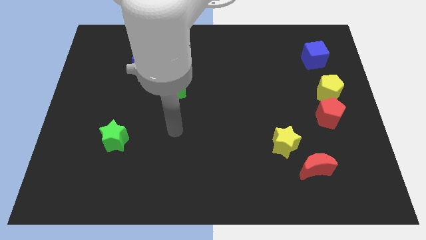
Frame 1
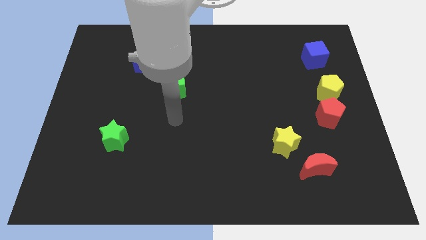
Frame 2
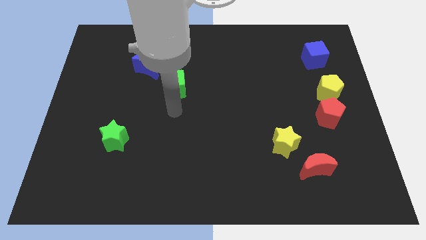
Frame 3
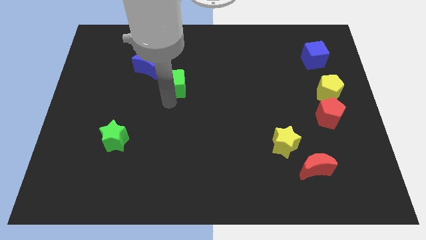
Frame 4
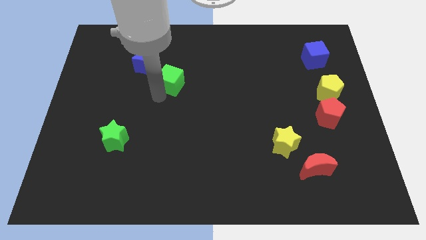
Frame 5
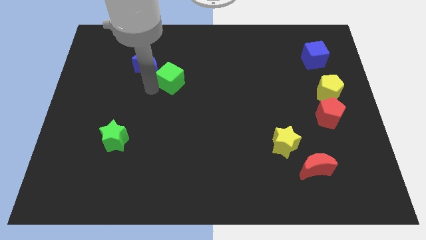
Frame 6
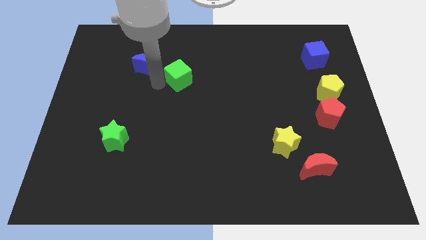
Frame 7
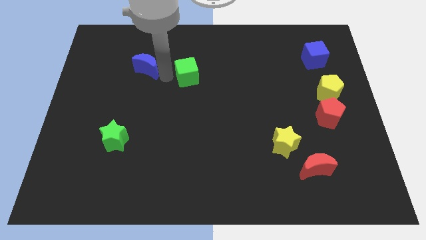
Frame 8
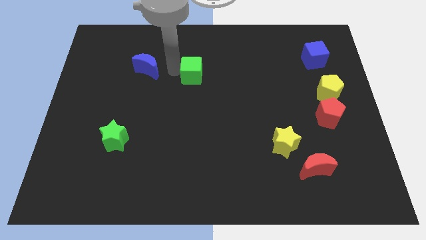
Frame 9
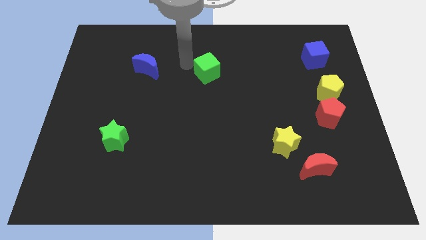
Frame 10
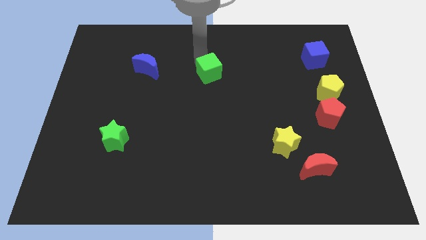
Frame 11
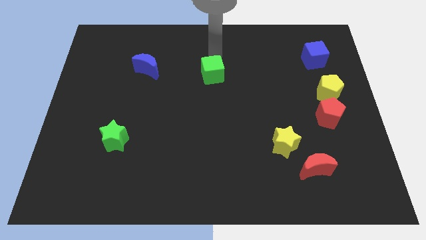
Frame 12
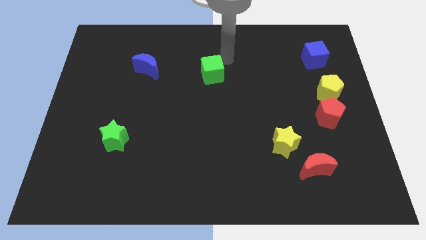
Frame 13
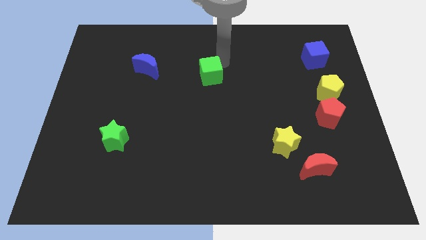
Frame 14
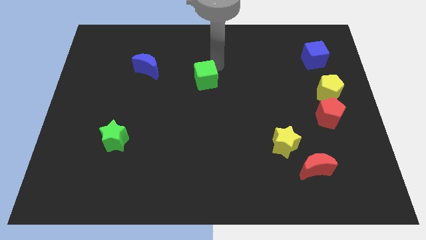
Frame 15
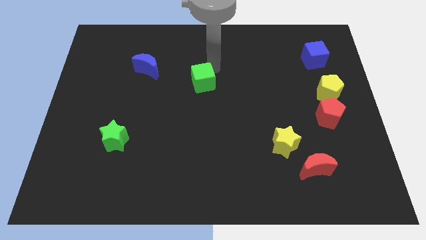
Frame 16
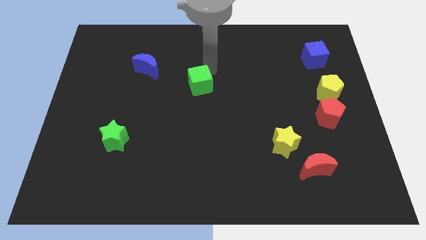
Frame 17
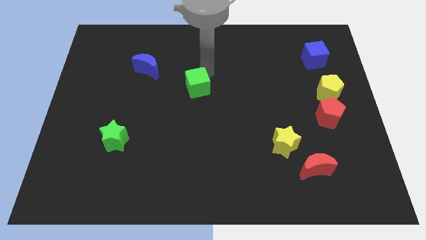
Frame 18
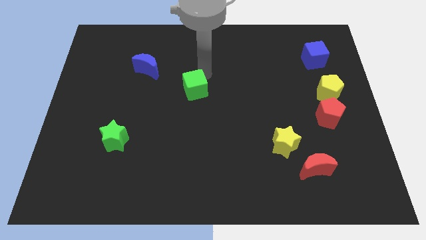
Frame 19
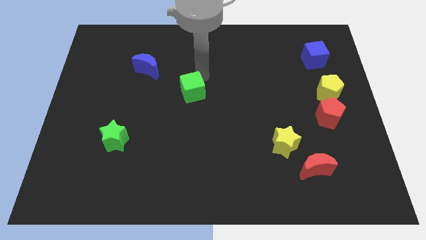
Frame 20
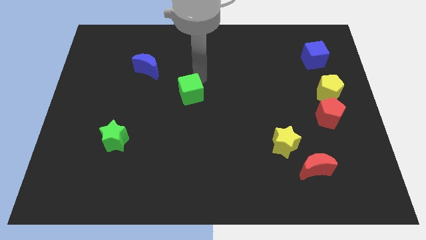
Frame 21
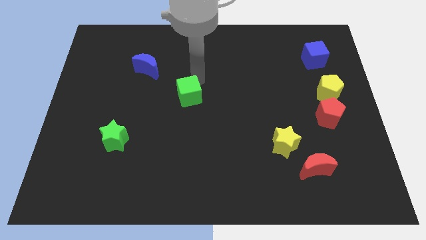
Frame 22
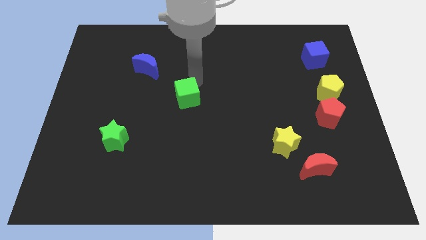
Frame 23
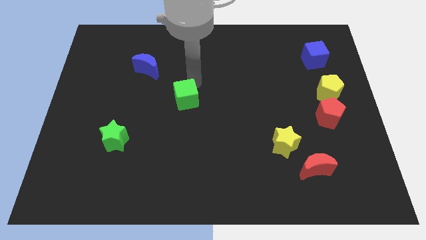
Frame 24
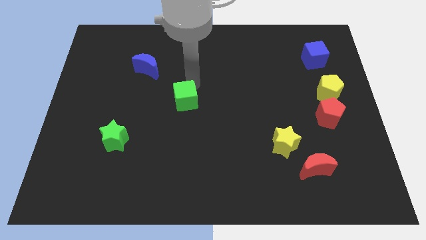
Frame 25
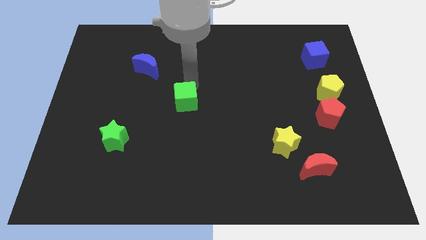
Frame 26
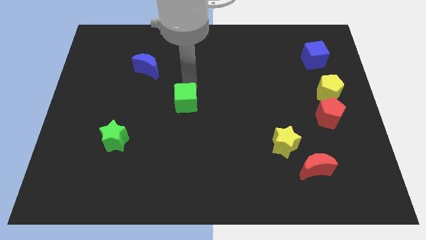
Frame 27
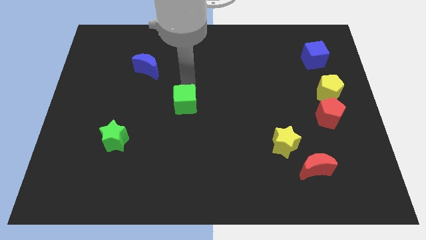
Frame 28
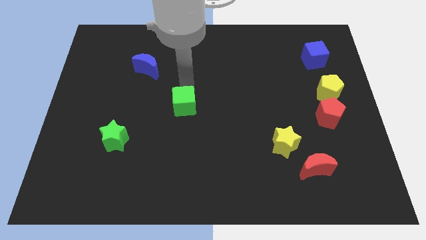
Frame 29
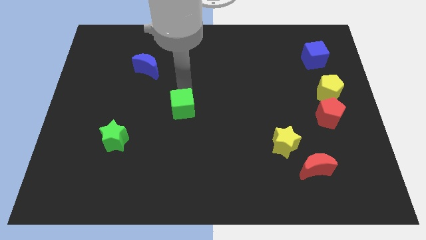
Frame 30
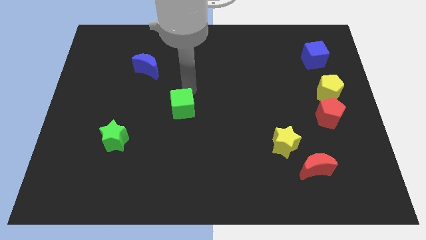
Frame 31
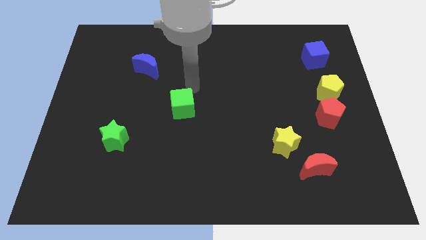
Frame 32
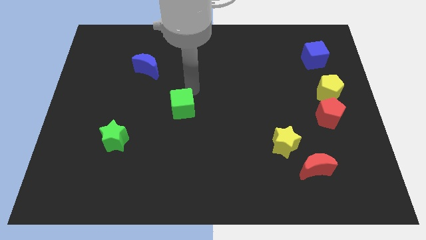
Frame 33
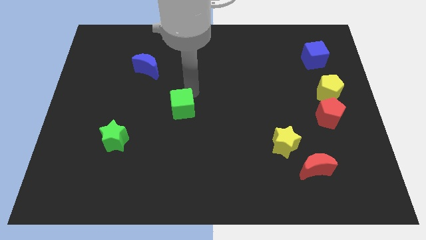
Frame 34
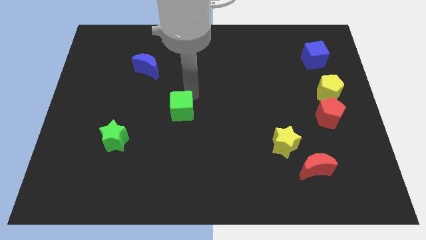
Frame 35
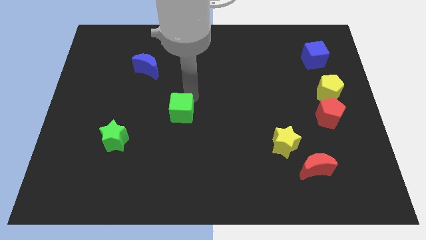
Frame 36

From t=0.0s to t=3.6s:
slide the green cube a little bit downwards

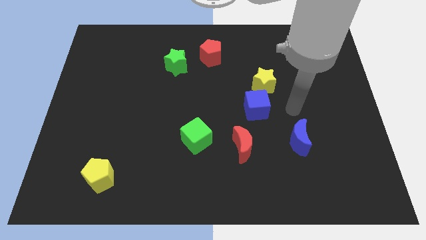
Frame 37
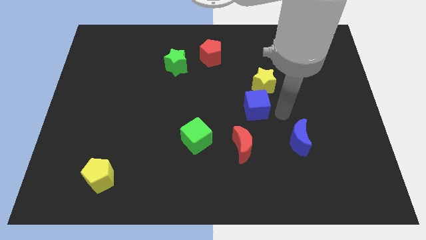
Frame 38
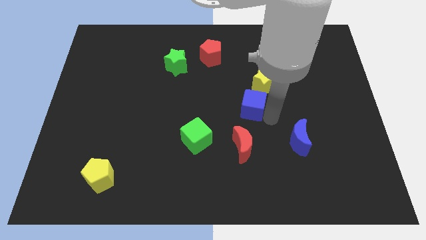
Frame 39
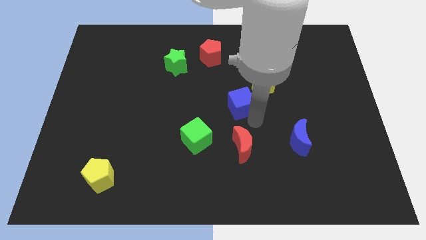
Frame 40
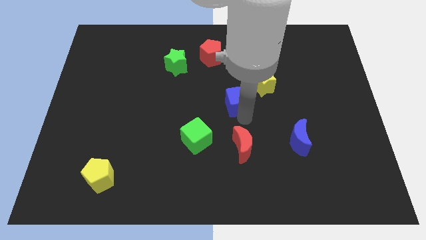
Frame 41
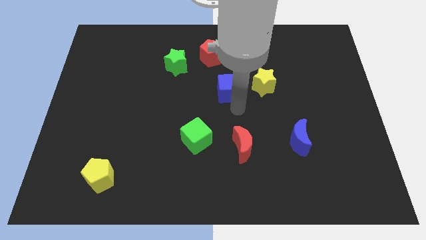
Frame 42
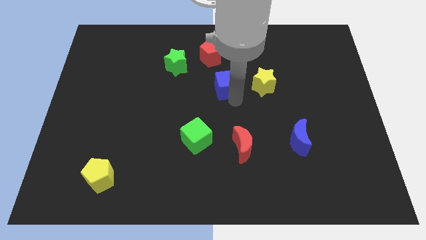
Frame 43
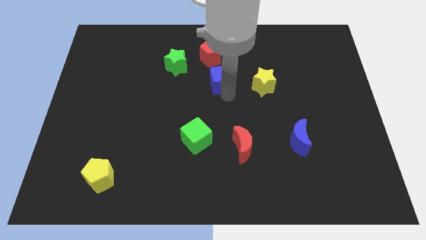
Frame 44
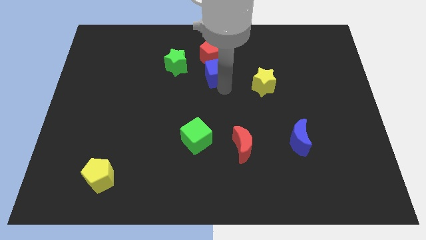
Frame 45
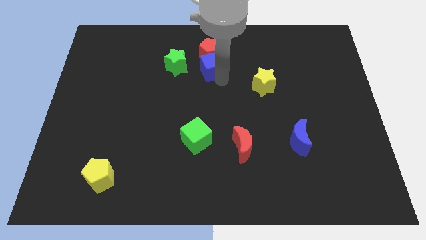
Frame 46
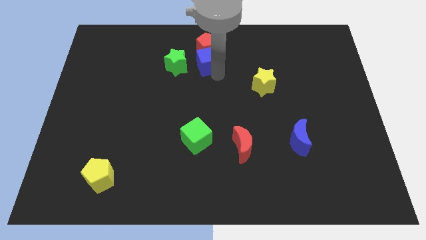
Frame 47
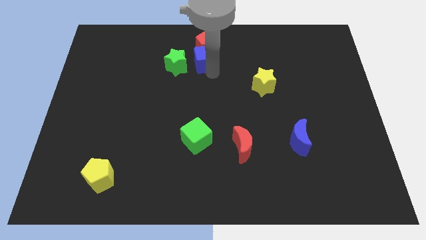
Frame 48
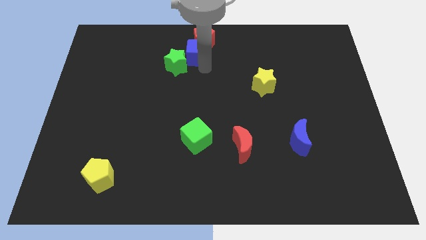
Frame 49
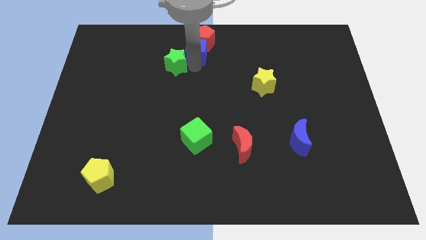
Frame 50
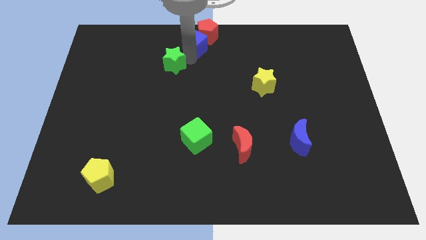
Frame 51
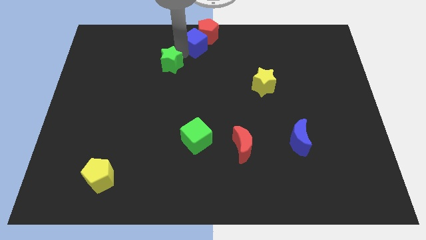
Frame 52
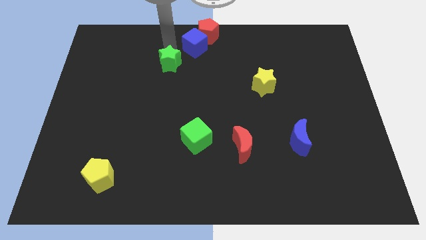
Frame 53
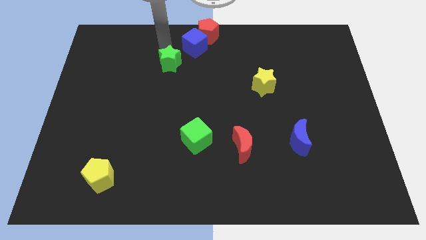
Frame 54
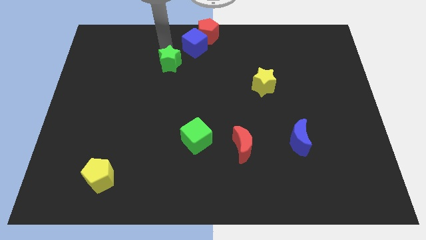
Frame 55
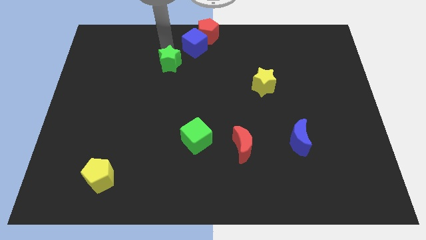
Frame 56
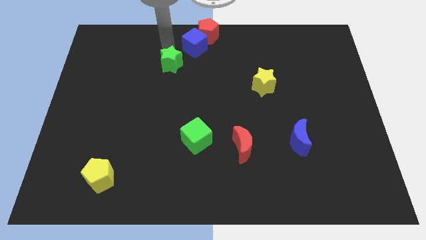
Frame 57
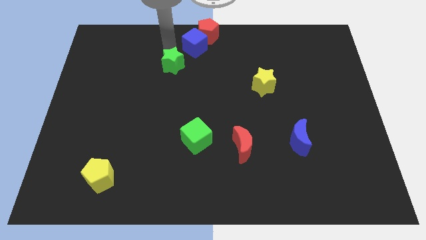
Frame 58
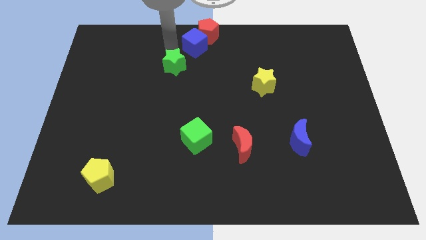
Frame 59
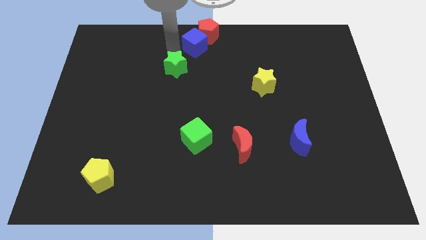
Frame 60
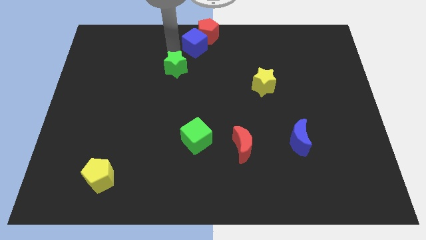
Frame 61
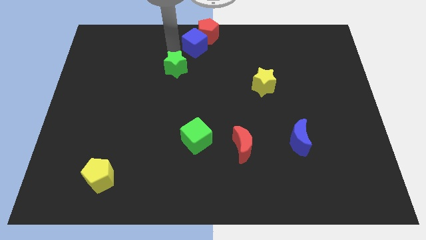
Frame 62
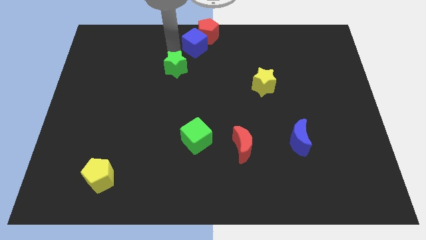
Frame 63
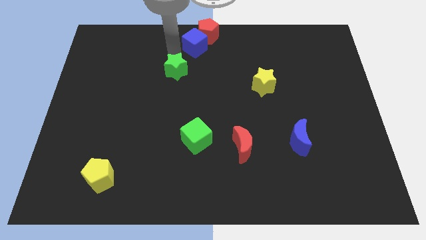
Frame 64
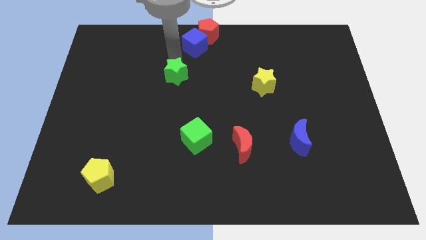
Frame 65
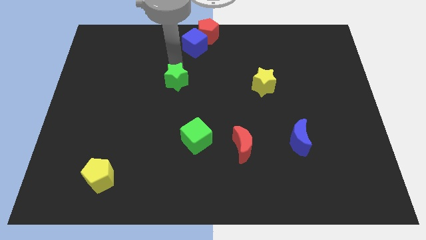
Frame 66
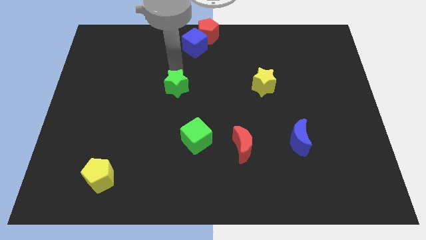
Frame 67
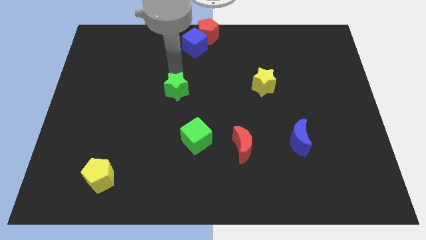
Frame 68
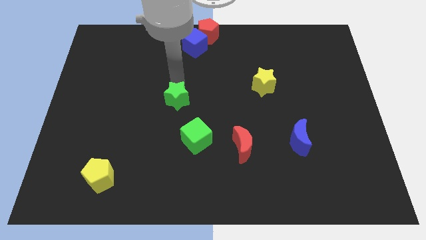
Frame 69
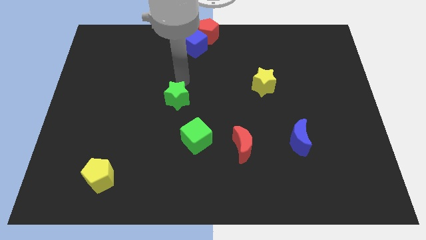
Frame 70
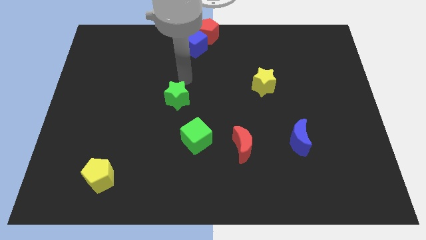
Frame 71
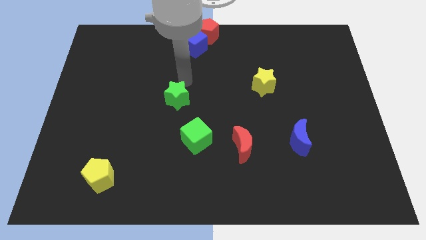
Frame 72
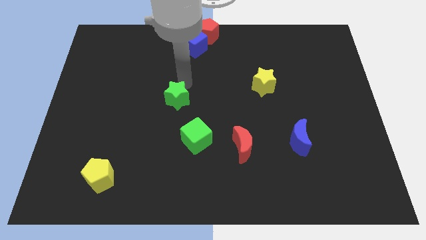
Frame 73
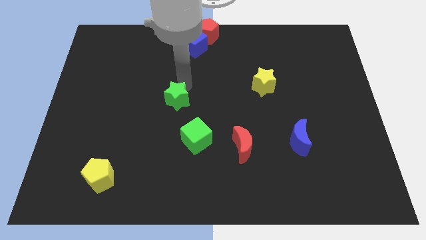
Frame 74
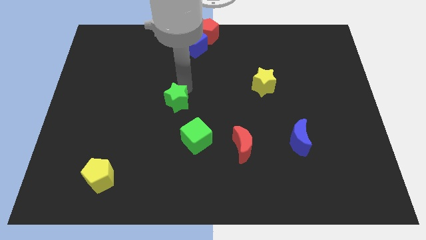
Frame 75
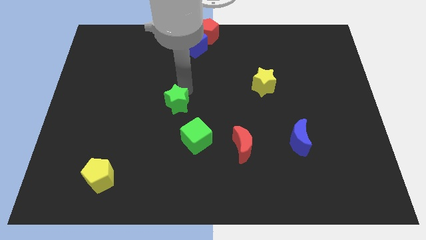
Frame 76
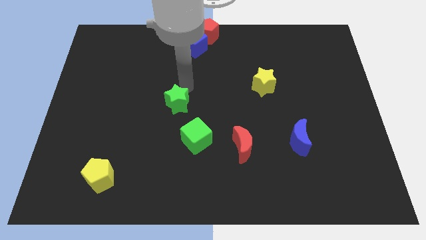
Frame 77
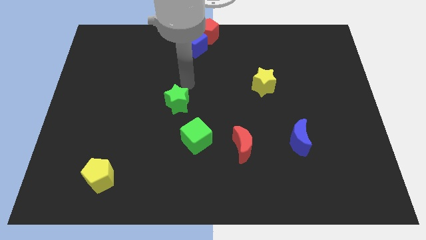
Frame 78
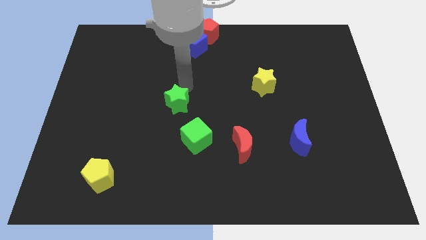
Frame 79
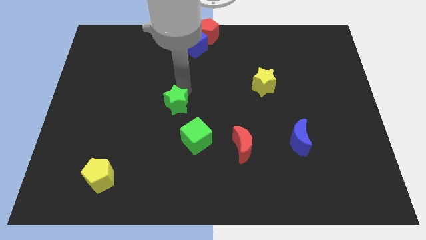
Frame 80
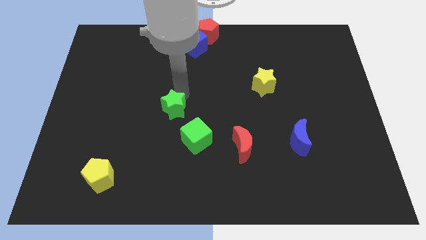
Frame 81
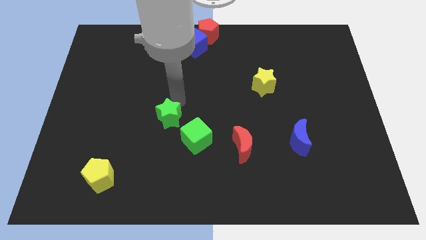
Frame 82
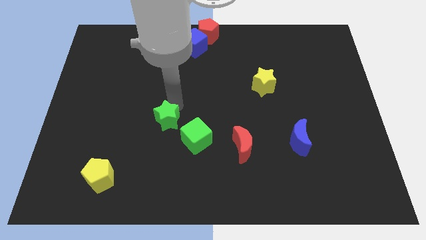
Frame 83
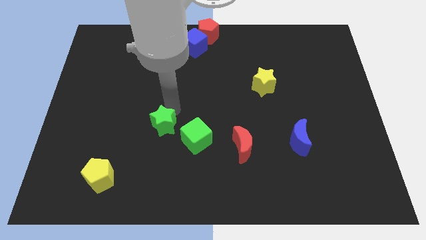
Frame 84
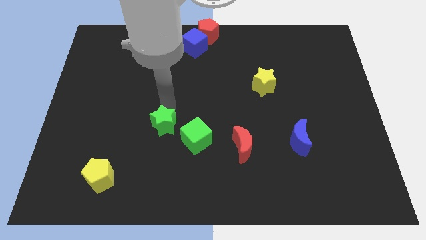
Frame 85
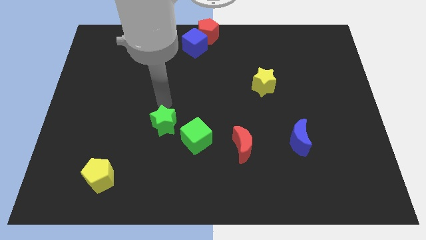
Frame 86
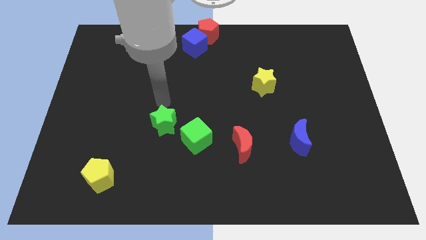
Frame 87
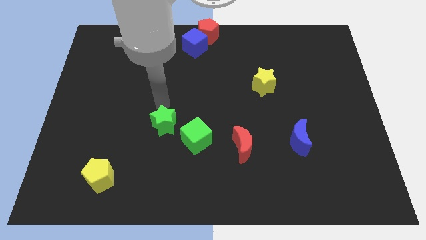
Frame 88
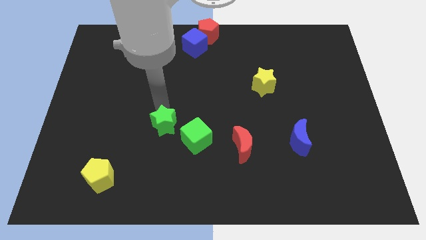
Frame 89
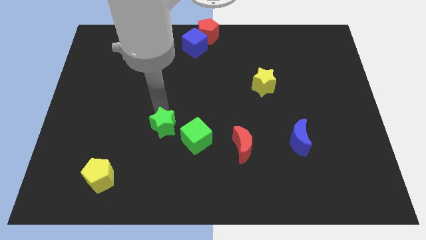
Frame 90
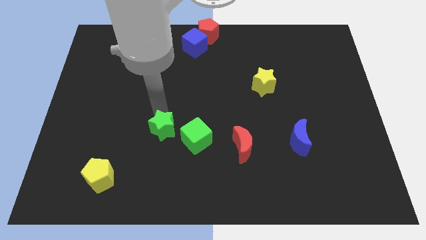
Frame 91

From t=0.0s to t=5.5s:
move the green star down
